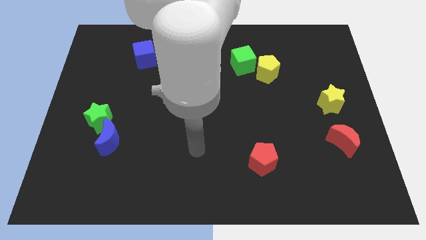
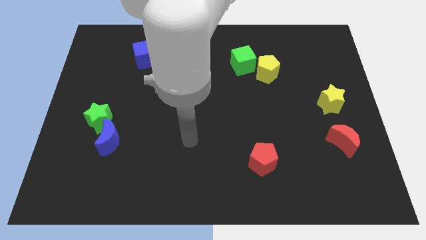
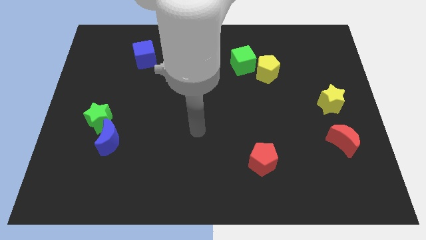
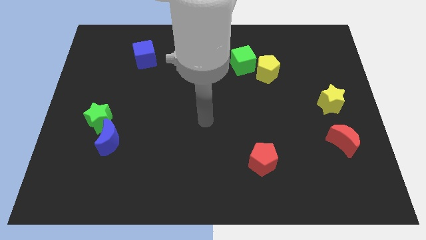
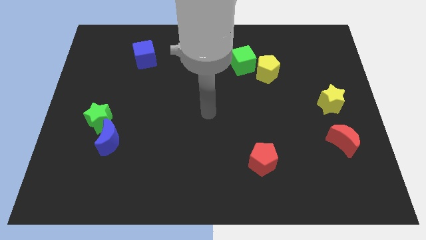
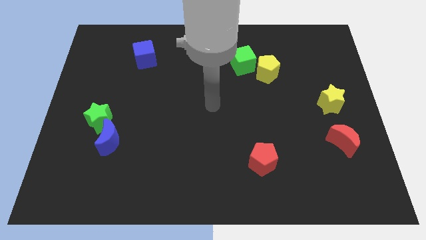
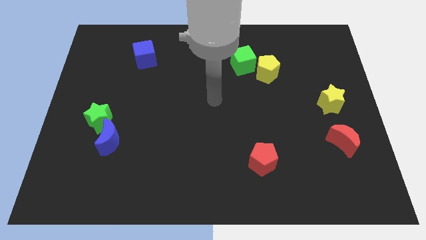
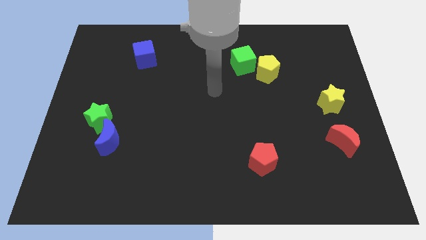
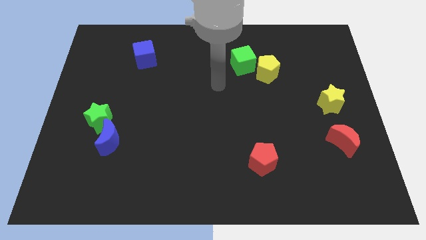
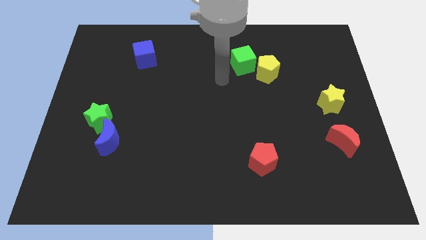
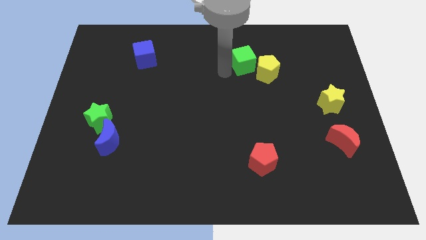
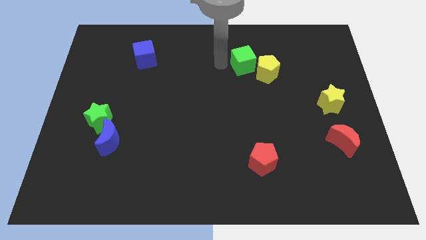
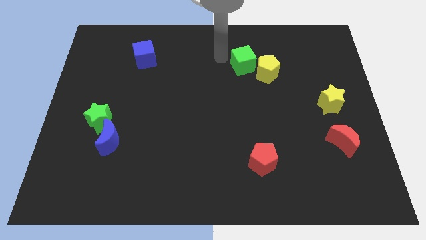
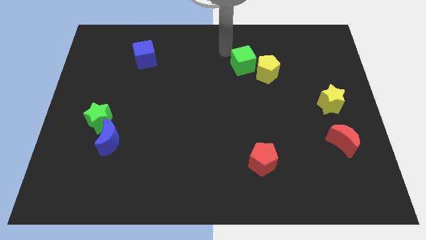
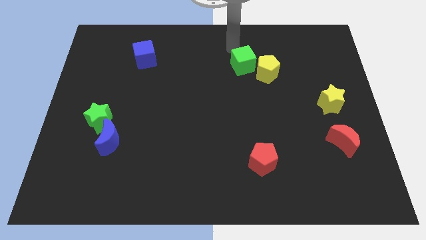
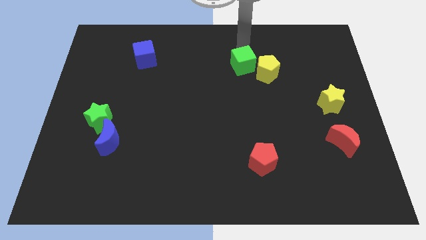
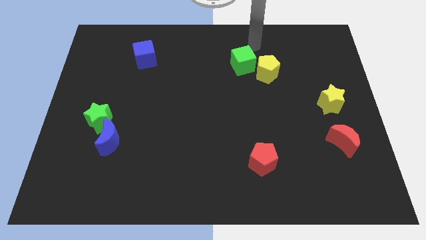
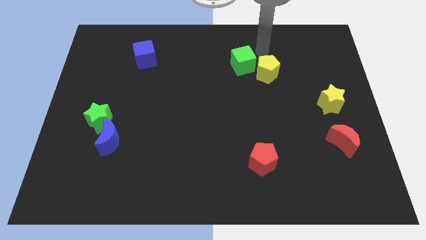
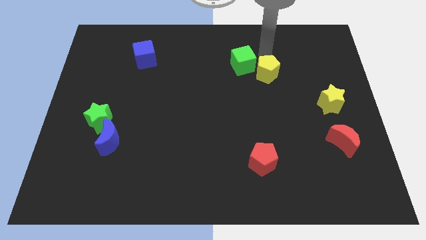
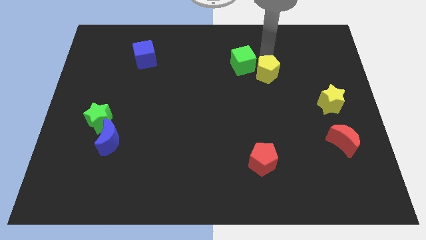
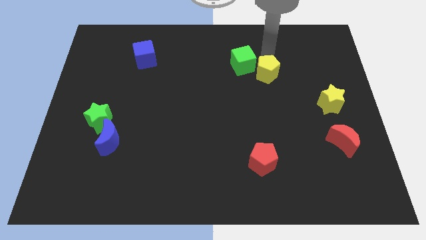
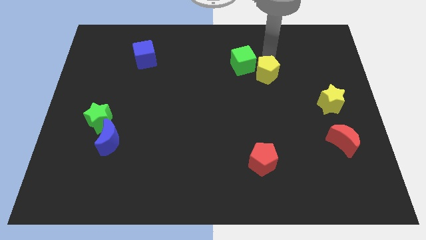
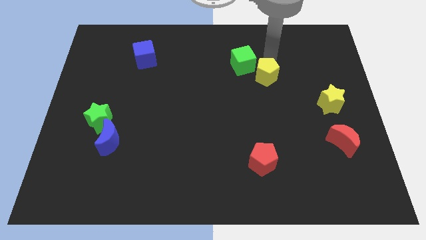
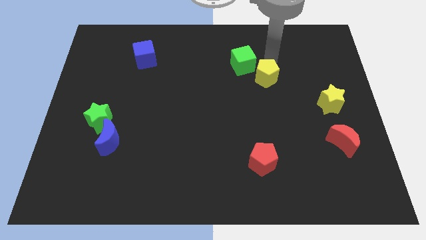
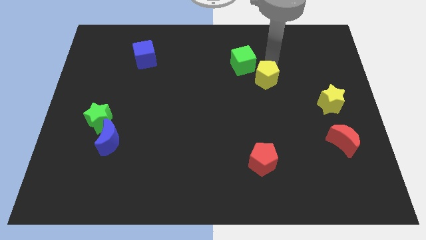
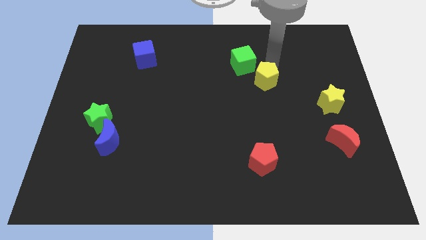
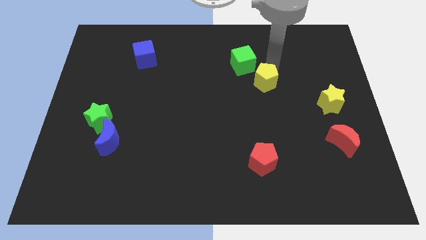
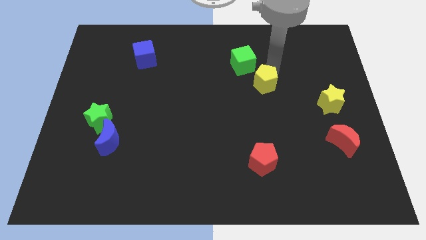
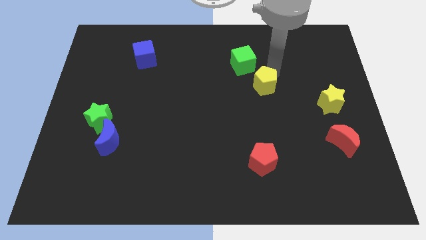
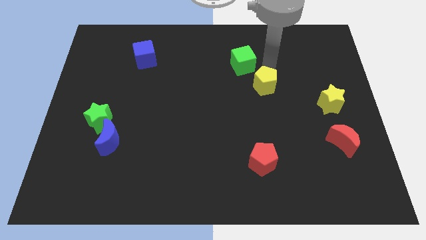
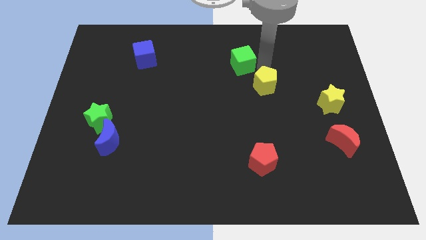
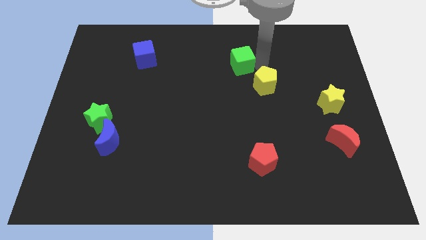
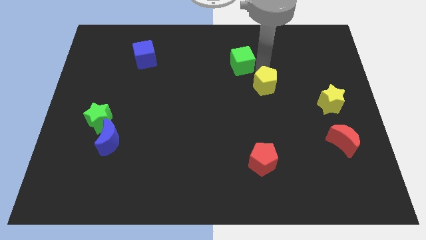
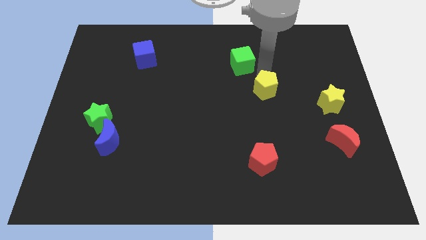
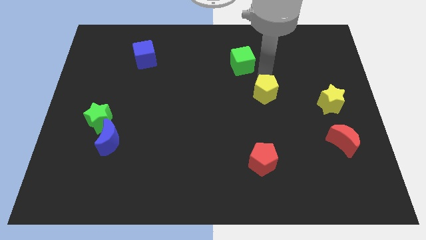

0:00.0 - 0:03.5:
slide the yellow pentagon down a little bit

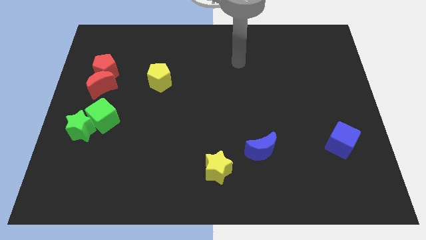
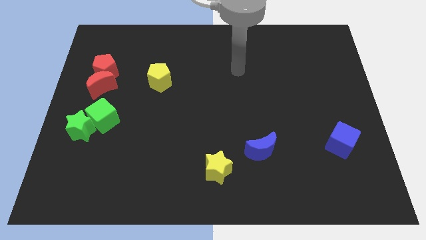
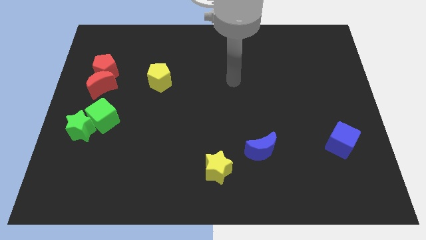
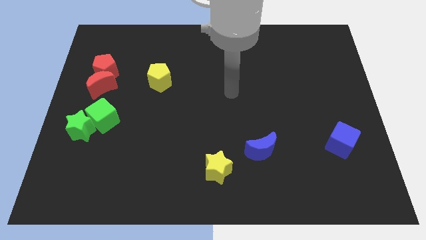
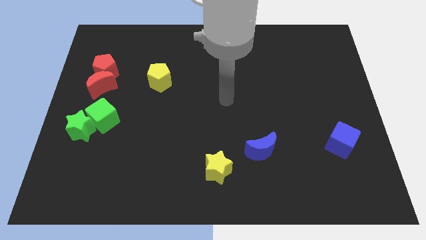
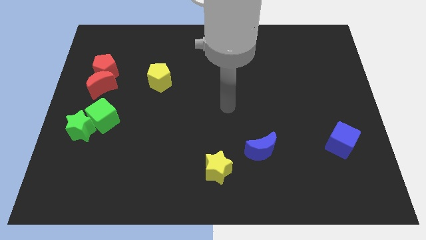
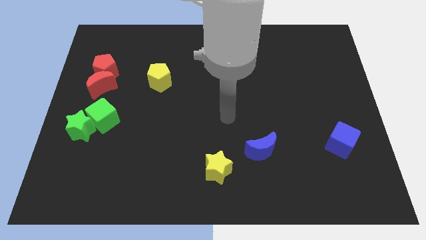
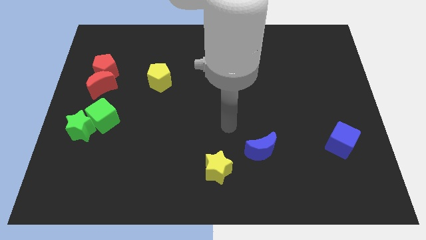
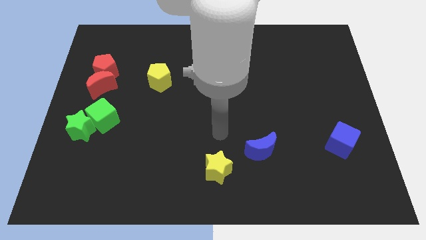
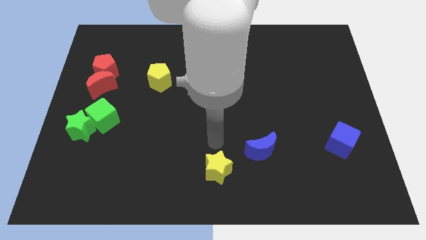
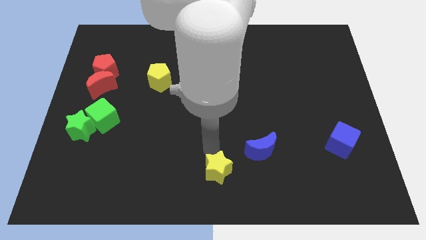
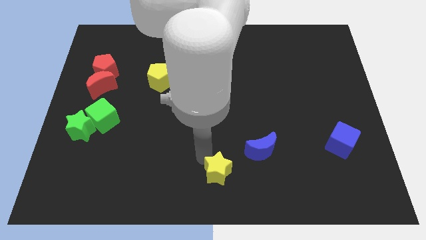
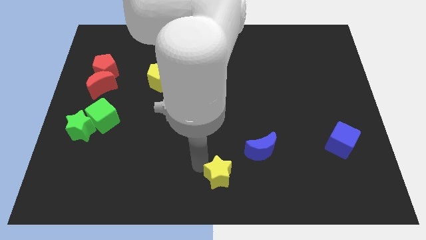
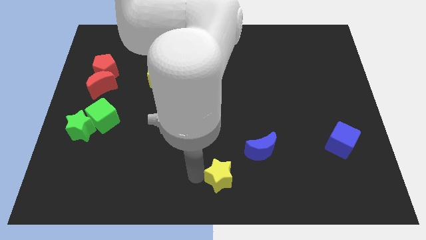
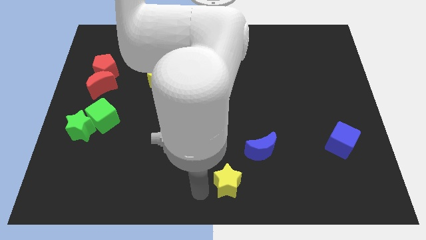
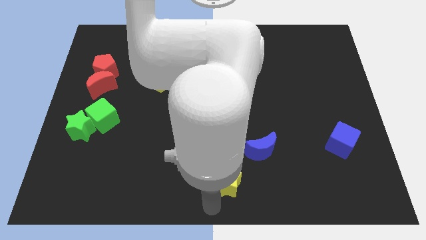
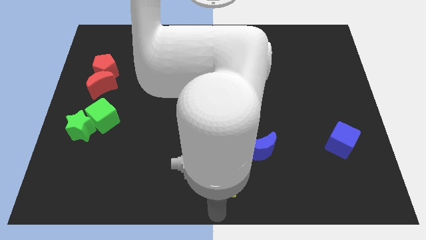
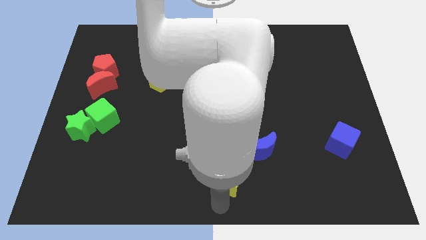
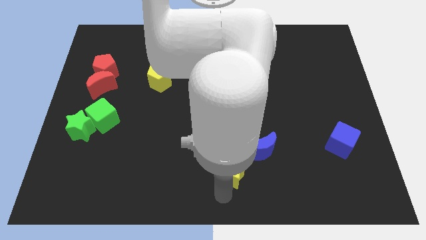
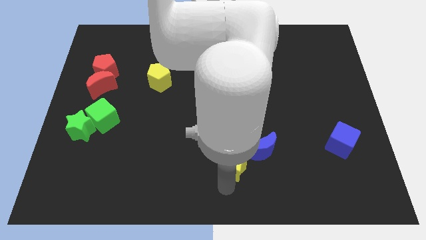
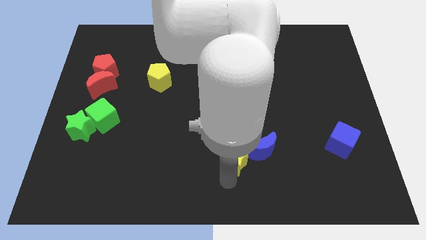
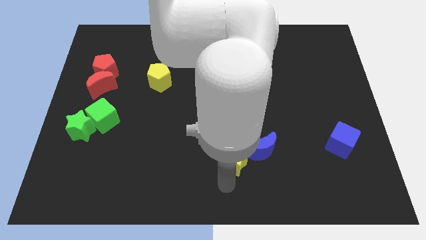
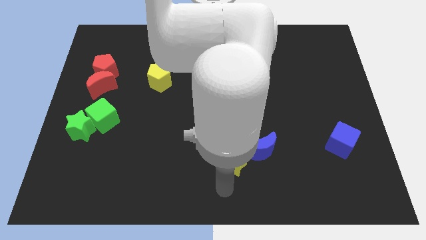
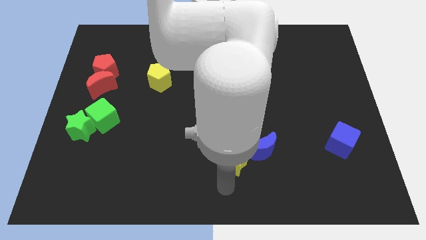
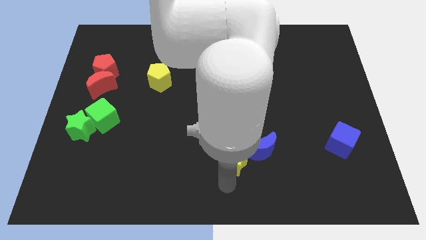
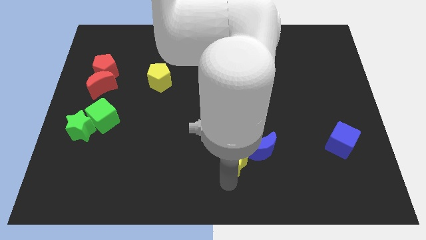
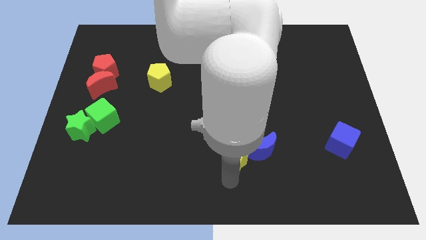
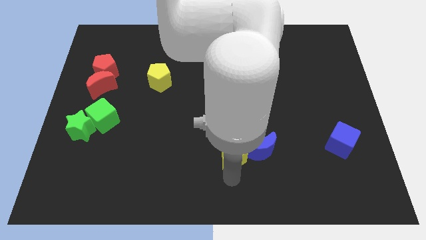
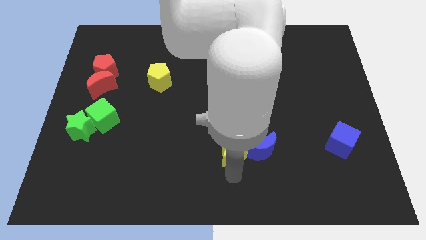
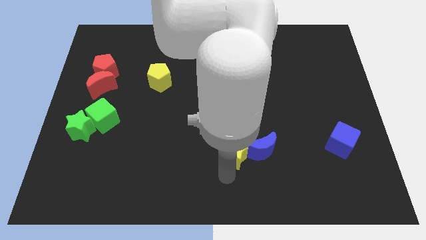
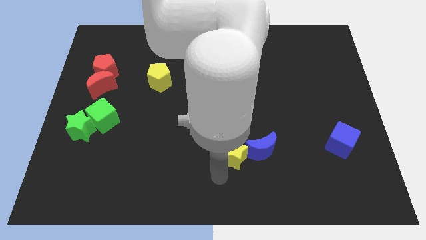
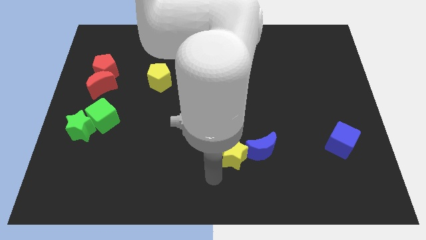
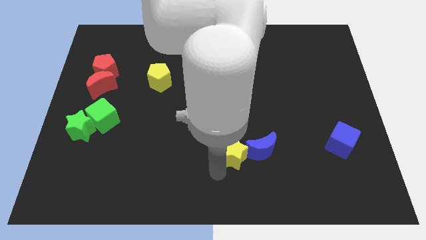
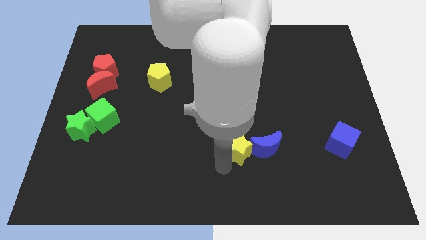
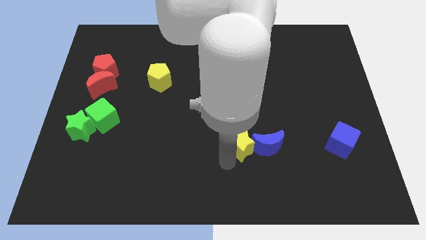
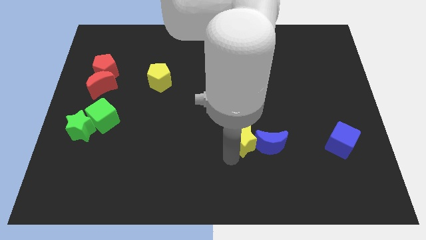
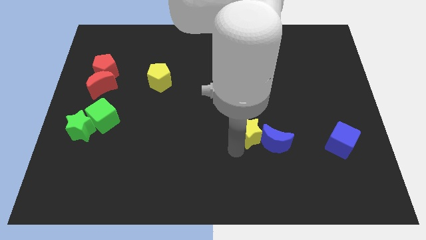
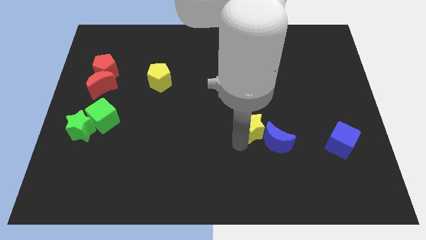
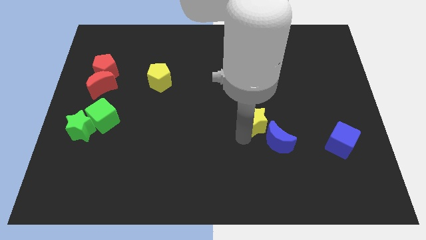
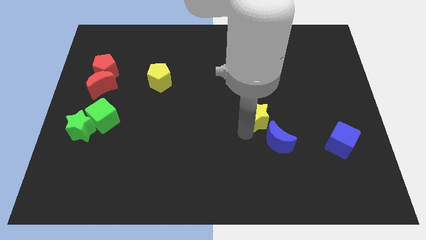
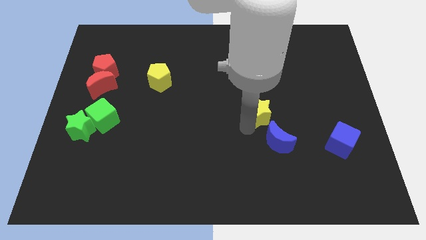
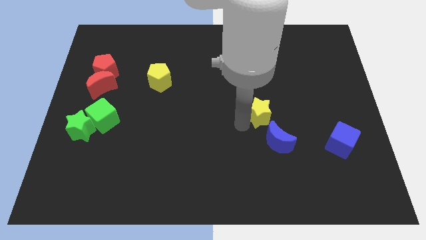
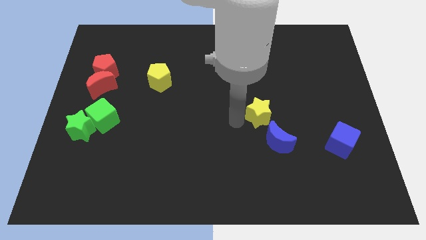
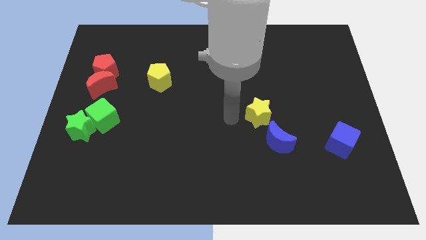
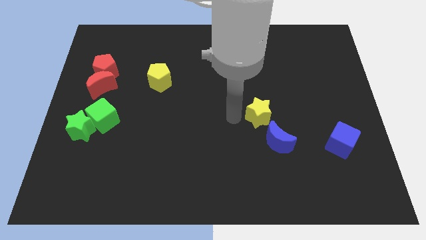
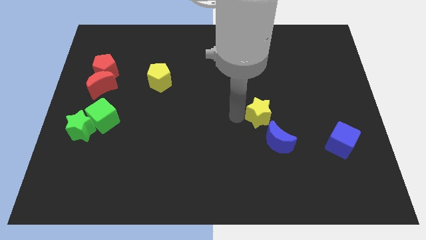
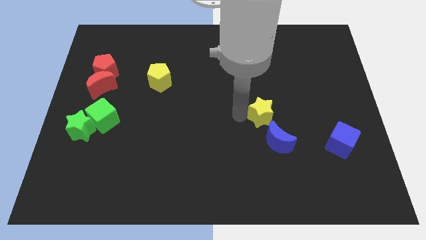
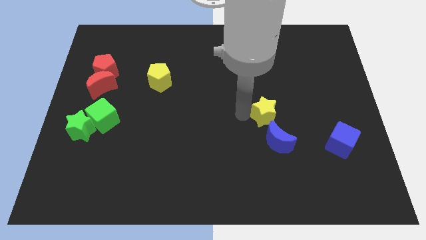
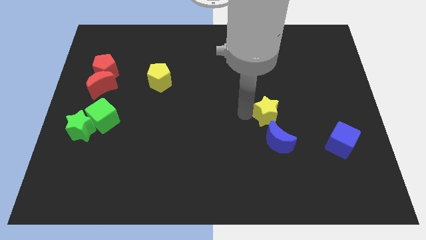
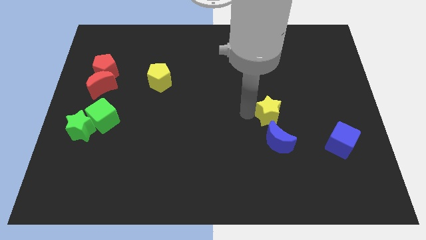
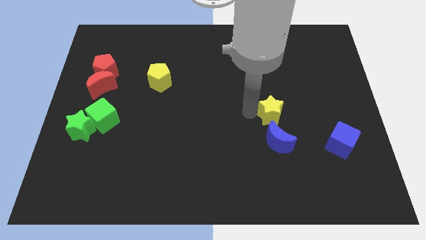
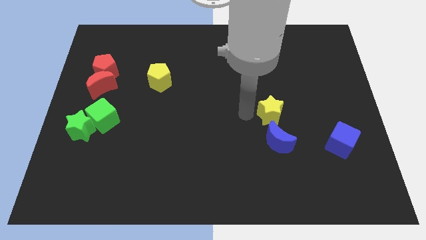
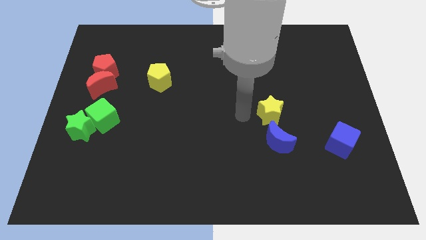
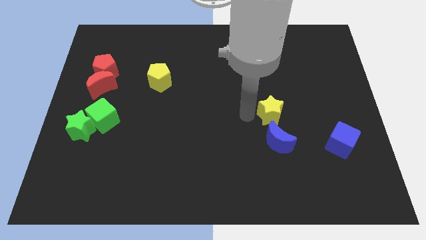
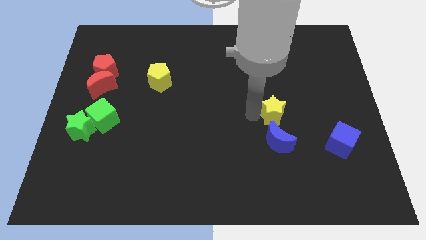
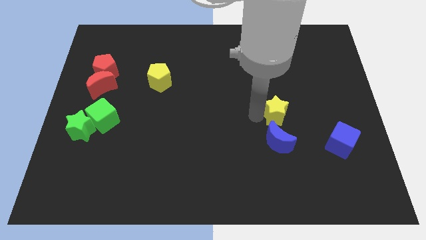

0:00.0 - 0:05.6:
move the yellow star up and right
